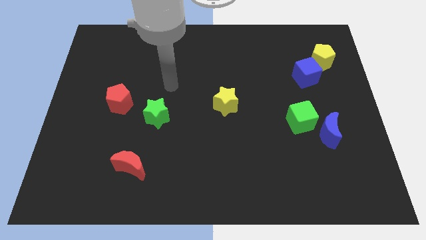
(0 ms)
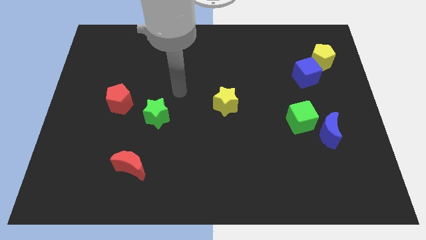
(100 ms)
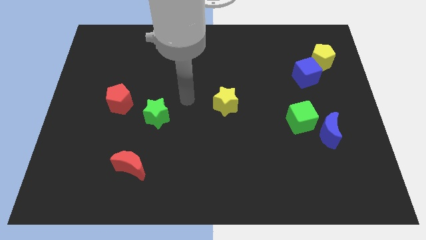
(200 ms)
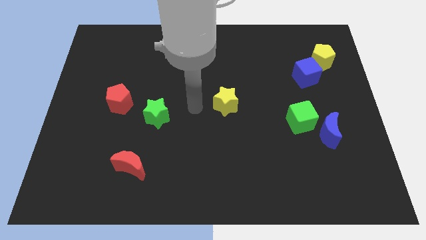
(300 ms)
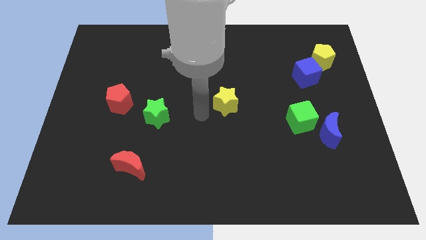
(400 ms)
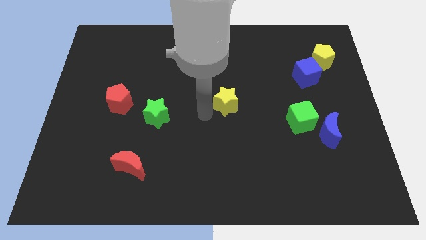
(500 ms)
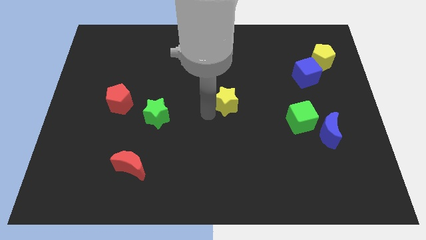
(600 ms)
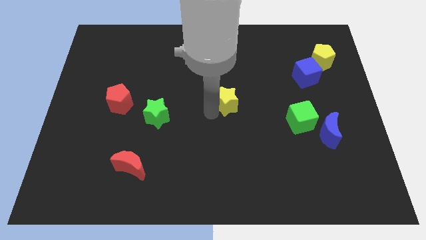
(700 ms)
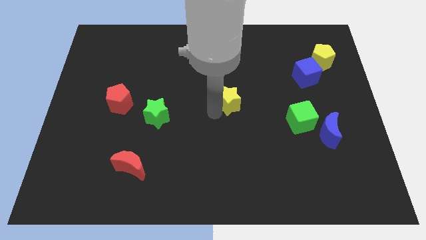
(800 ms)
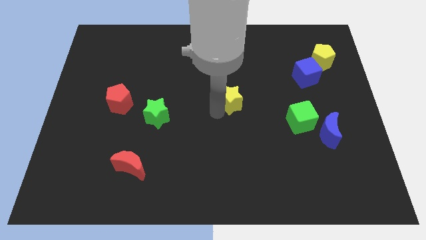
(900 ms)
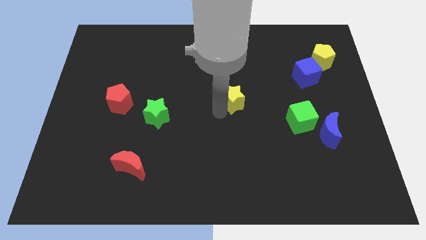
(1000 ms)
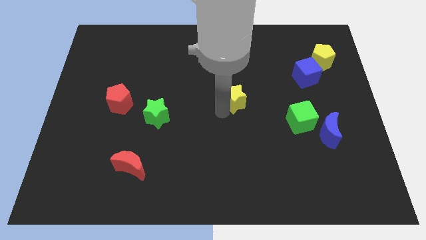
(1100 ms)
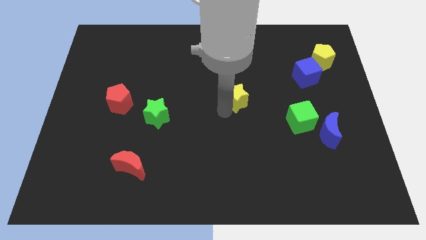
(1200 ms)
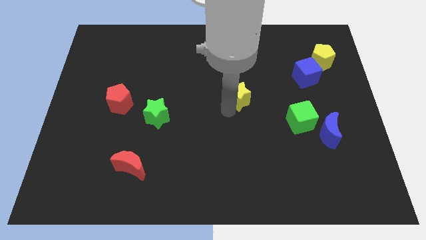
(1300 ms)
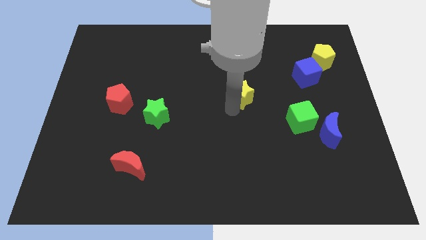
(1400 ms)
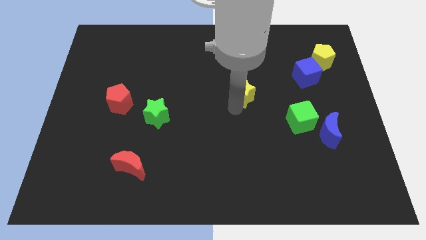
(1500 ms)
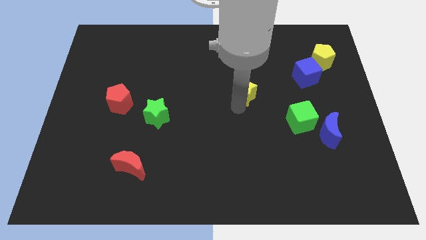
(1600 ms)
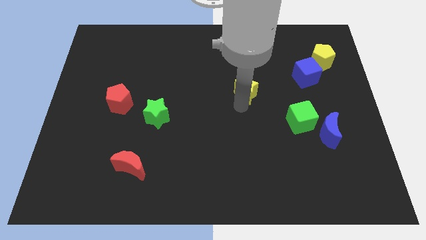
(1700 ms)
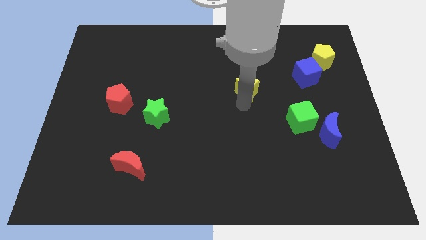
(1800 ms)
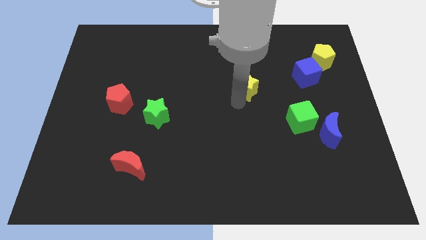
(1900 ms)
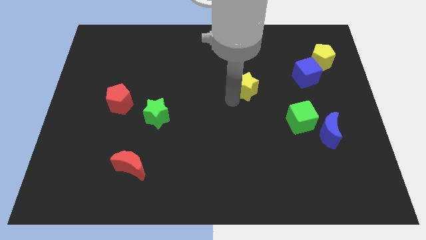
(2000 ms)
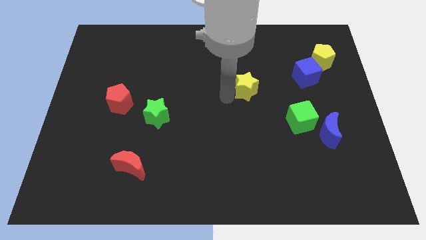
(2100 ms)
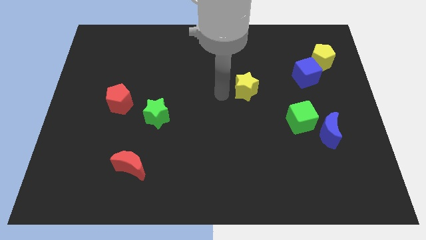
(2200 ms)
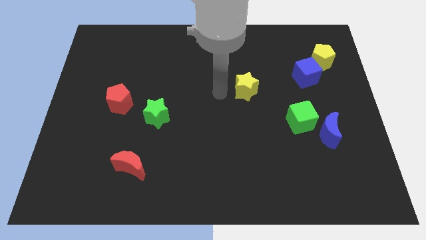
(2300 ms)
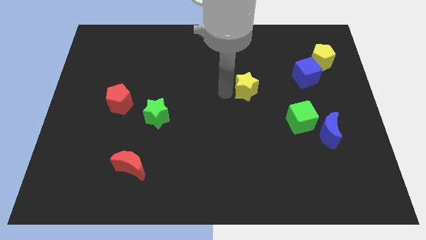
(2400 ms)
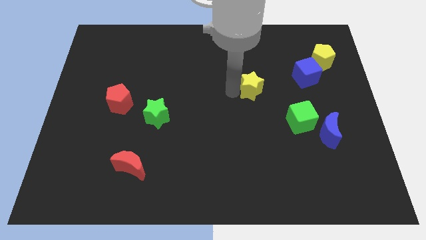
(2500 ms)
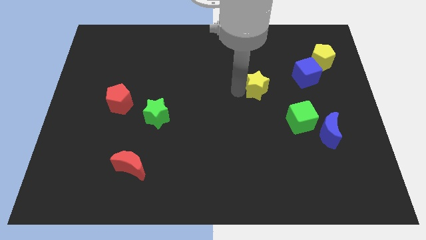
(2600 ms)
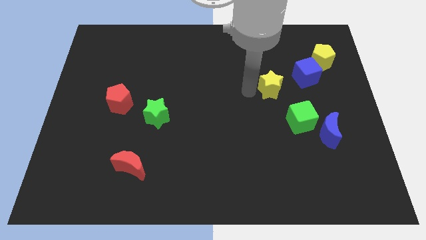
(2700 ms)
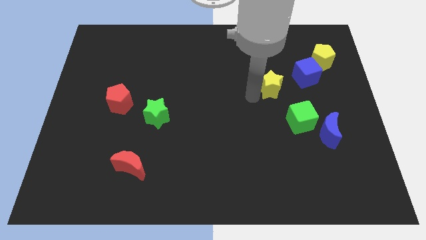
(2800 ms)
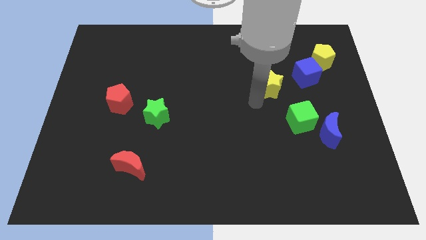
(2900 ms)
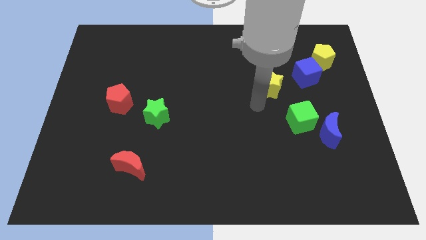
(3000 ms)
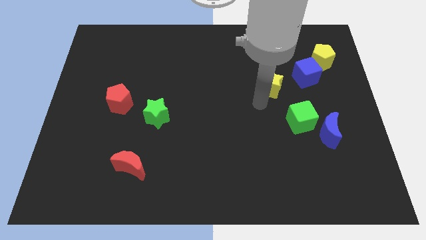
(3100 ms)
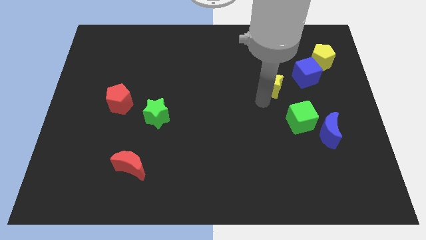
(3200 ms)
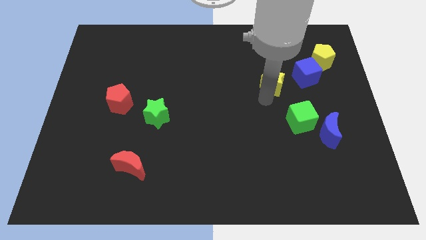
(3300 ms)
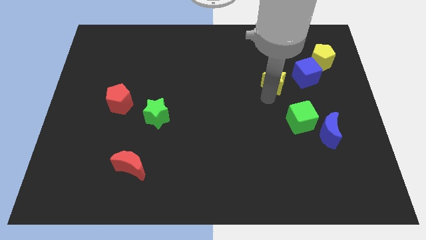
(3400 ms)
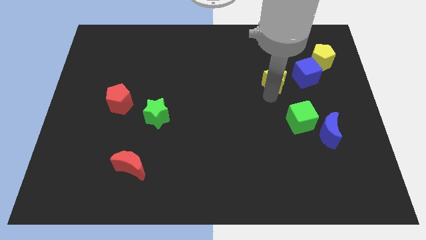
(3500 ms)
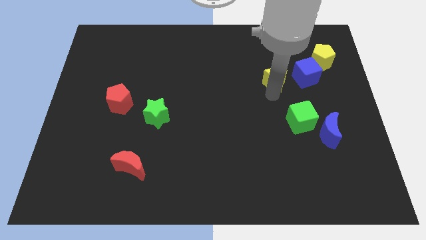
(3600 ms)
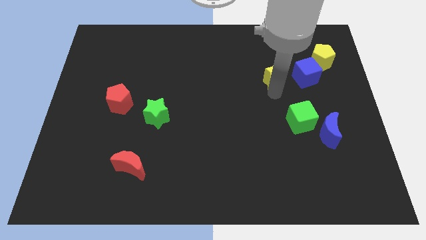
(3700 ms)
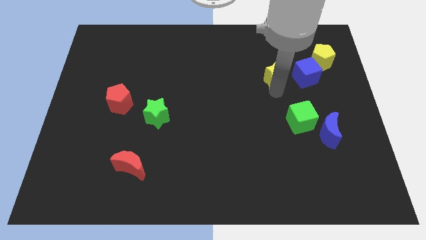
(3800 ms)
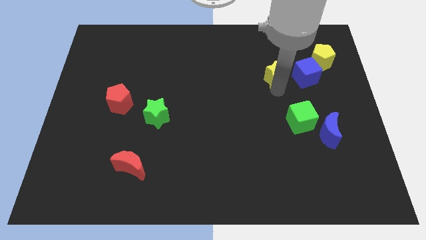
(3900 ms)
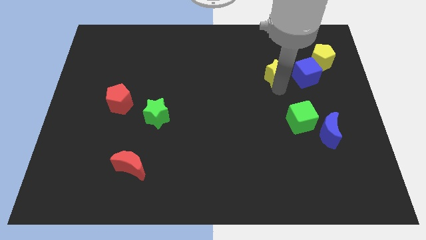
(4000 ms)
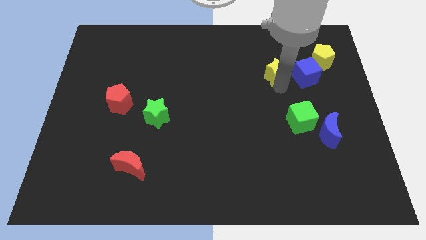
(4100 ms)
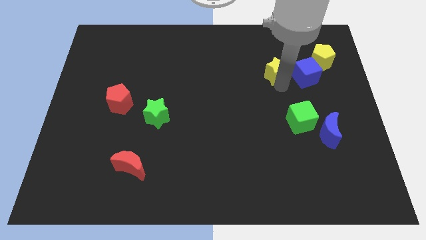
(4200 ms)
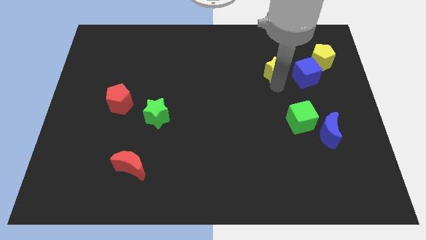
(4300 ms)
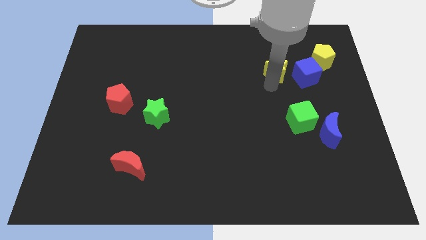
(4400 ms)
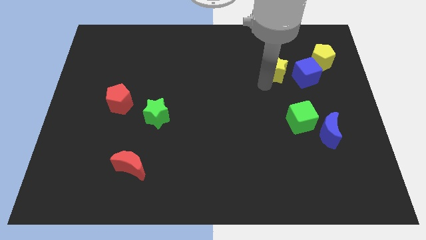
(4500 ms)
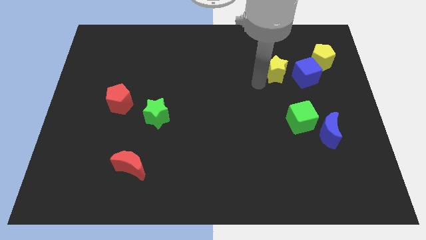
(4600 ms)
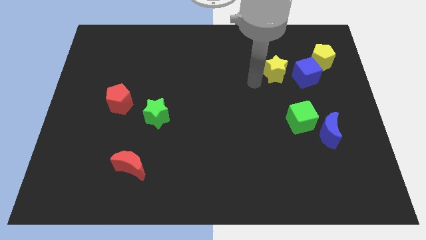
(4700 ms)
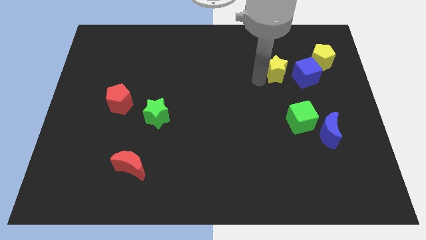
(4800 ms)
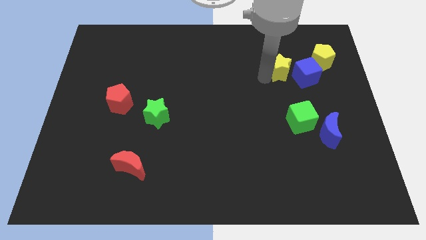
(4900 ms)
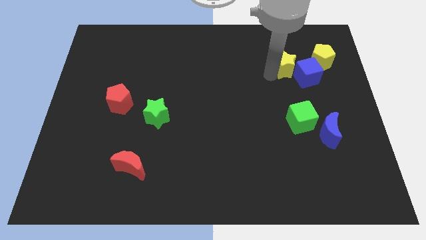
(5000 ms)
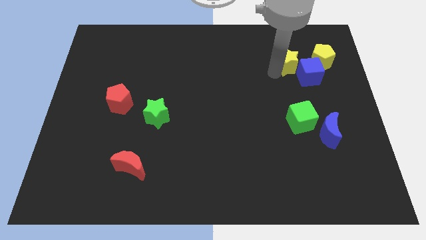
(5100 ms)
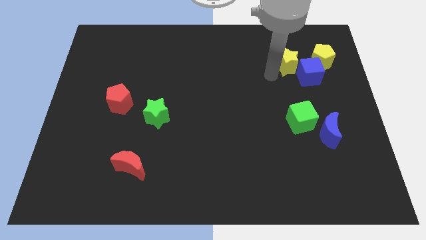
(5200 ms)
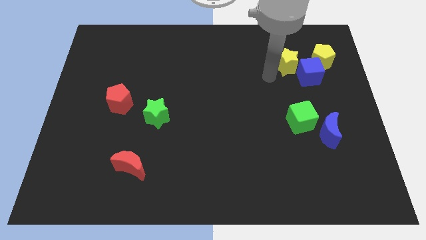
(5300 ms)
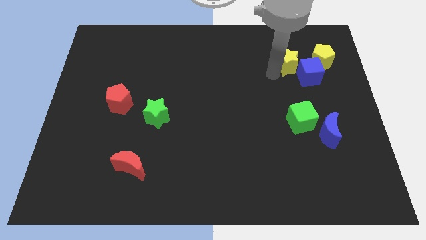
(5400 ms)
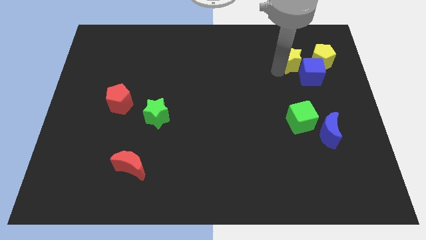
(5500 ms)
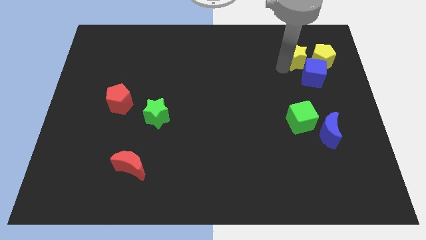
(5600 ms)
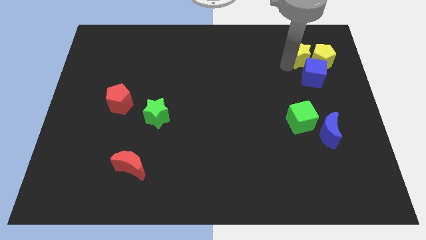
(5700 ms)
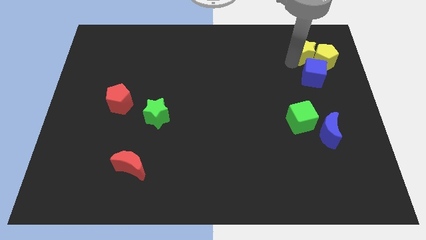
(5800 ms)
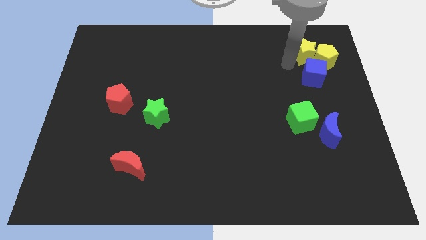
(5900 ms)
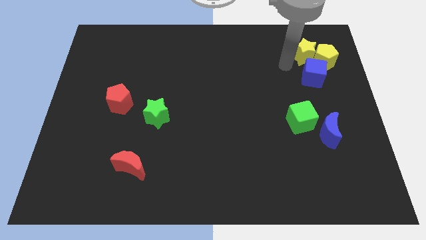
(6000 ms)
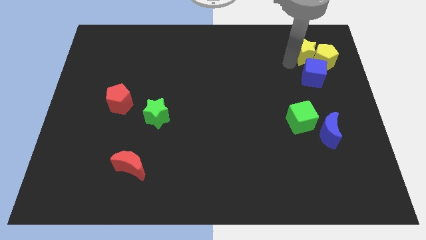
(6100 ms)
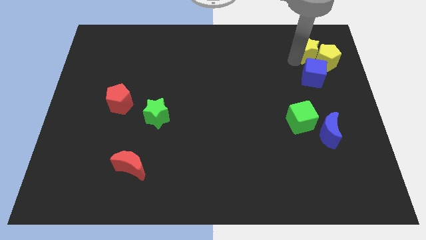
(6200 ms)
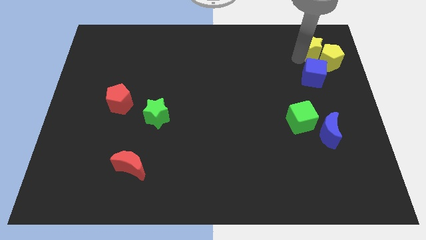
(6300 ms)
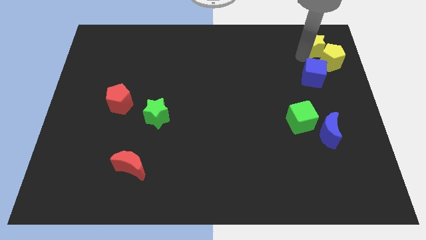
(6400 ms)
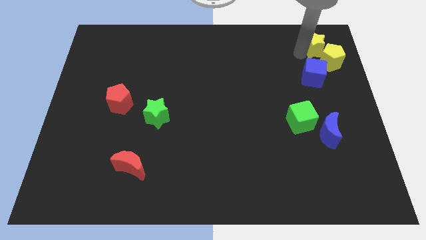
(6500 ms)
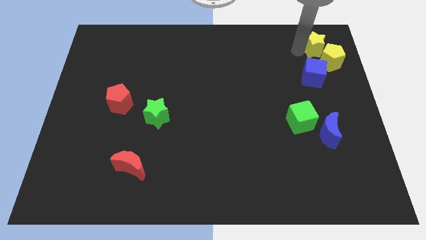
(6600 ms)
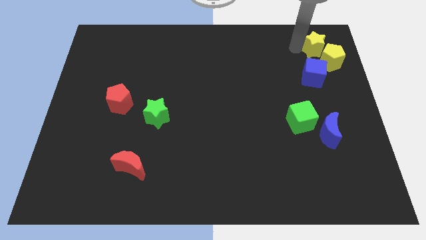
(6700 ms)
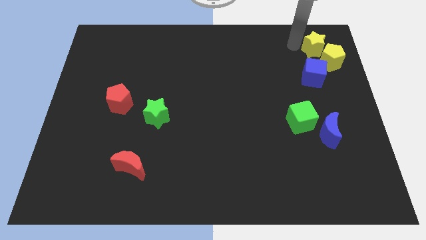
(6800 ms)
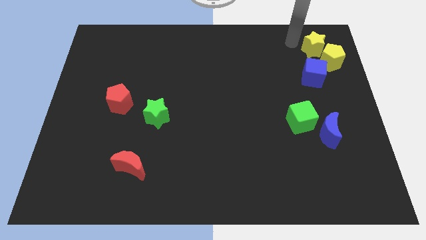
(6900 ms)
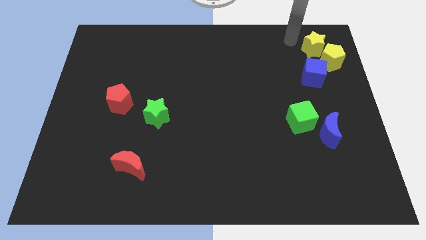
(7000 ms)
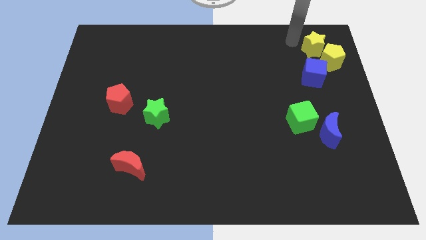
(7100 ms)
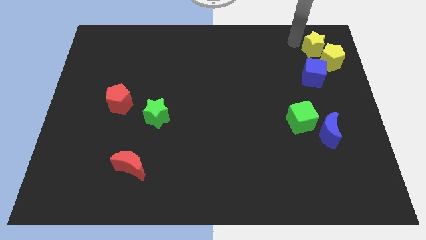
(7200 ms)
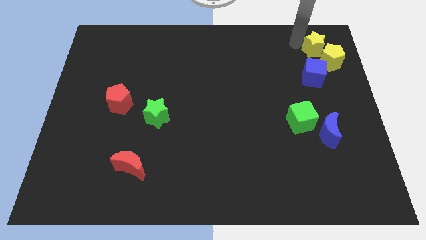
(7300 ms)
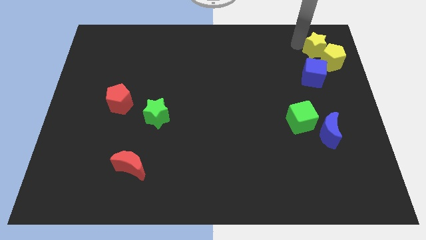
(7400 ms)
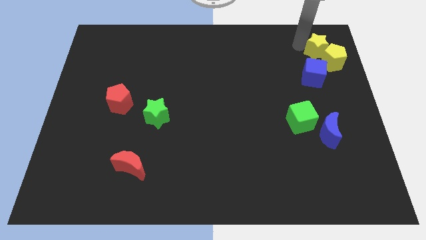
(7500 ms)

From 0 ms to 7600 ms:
slide the yellow star to the top right side of the blue cube

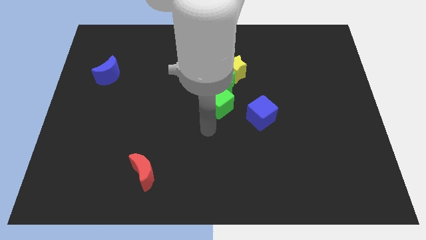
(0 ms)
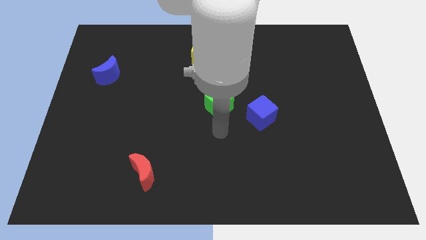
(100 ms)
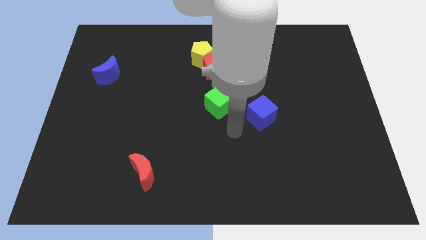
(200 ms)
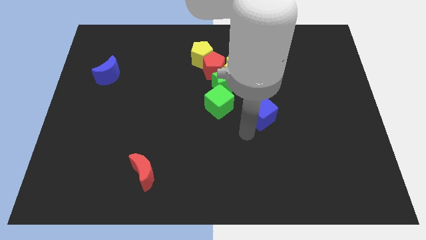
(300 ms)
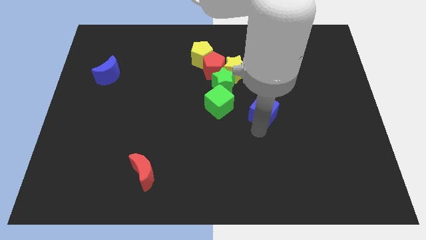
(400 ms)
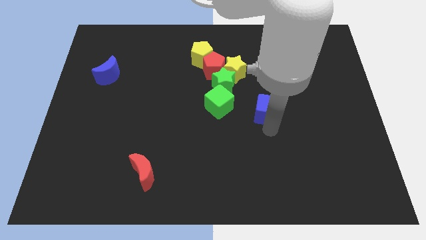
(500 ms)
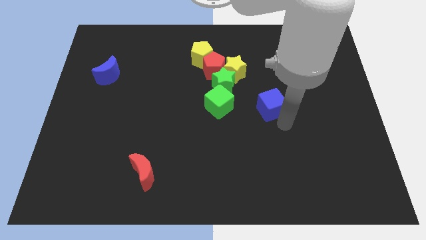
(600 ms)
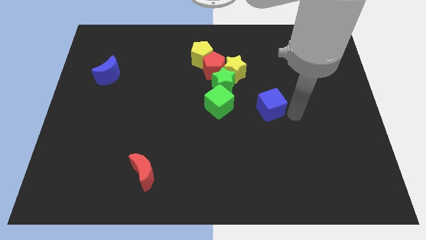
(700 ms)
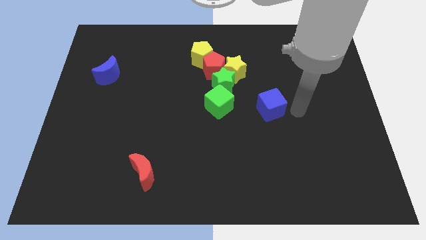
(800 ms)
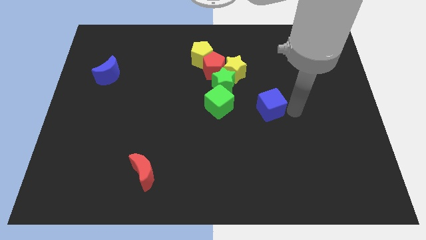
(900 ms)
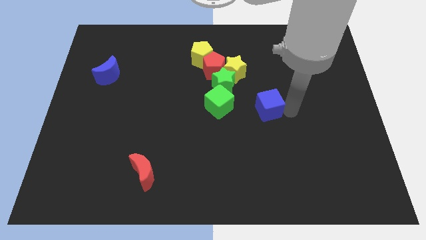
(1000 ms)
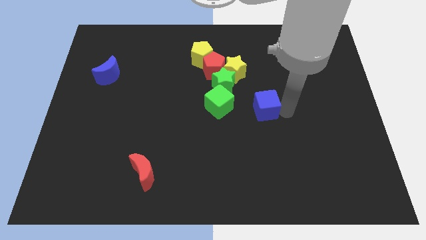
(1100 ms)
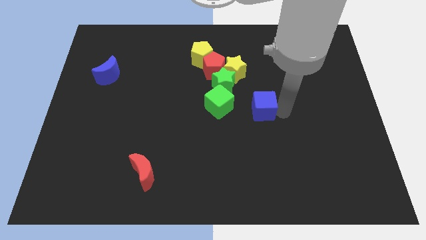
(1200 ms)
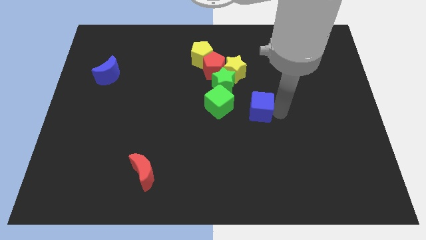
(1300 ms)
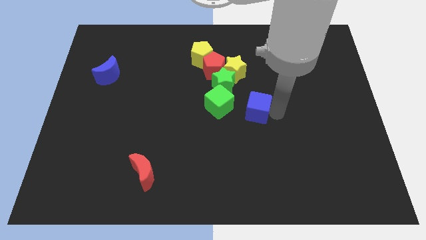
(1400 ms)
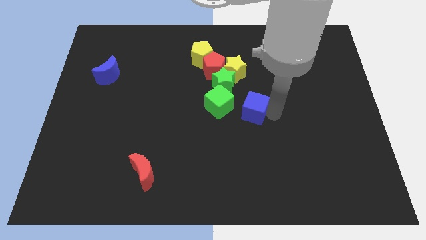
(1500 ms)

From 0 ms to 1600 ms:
push the blue cube to the bottom side of the yellow star
